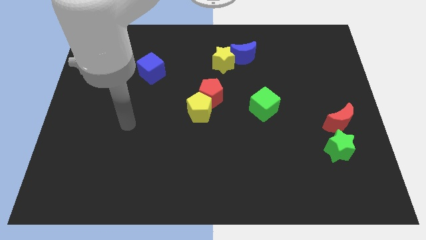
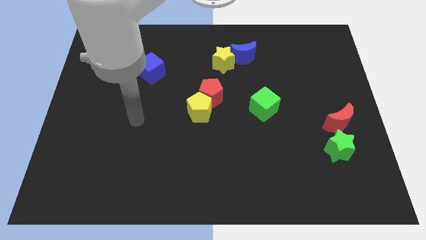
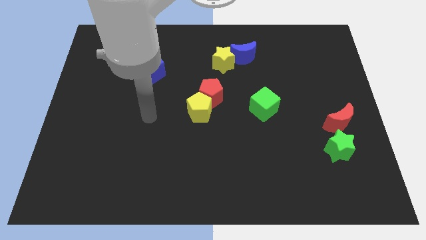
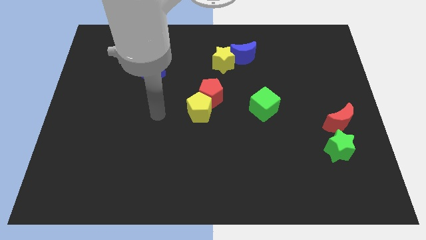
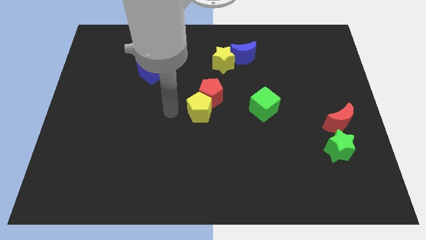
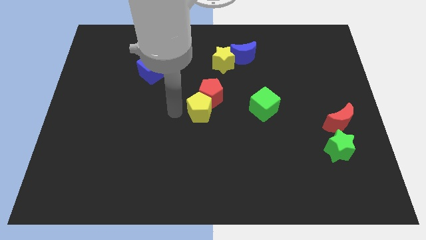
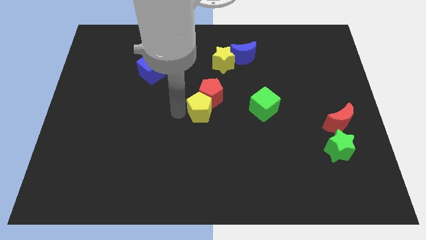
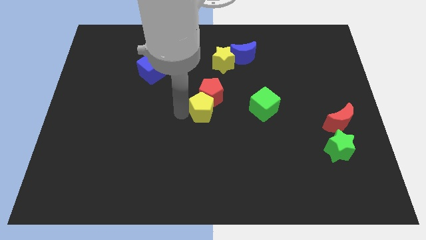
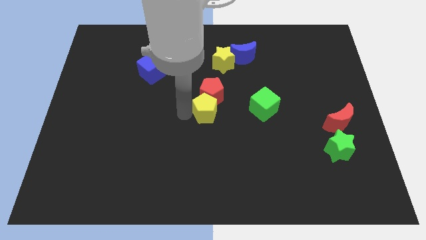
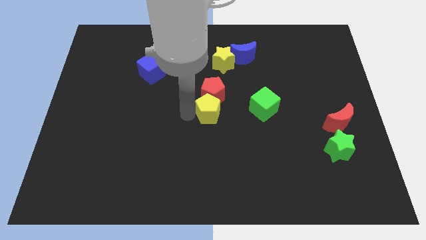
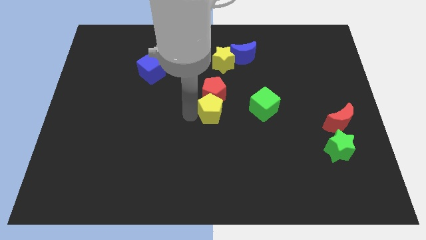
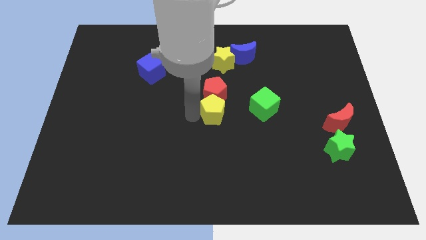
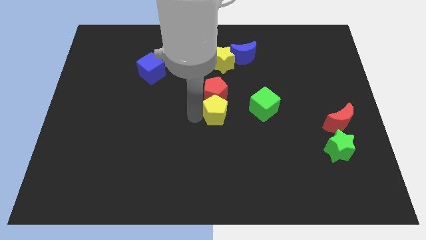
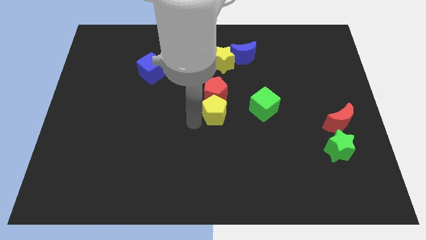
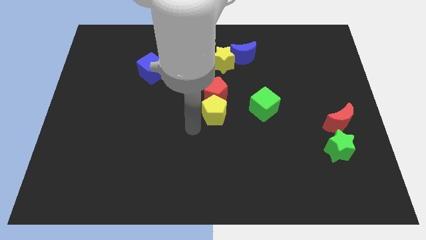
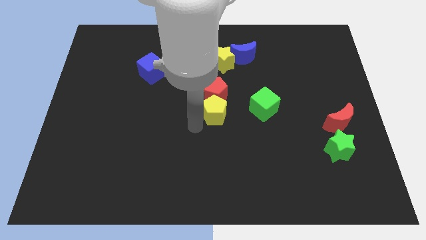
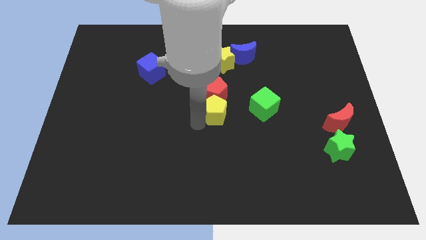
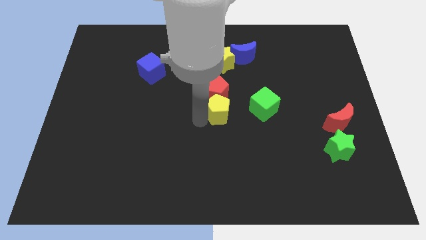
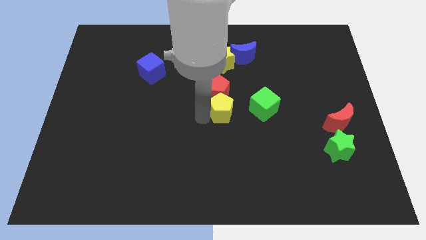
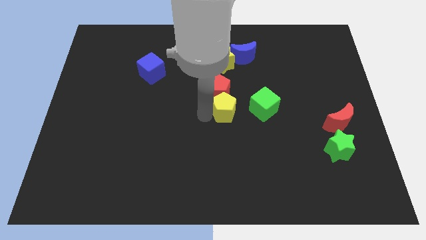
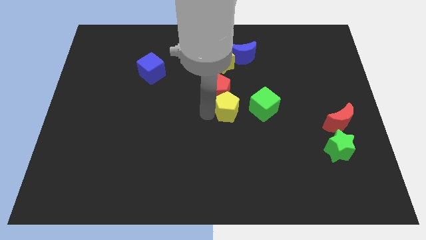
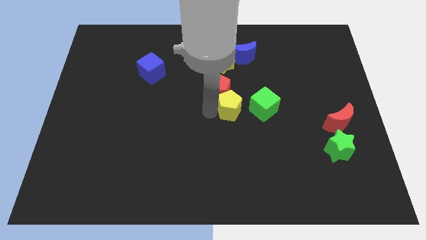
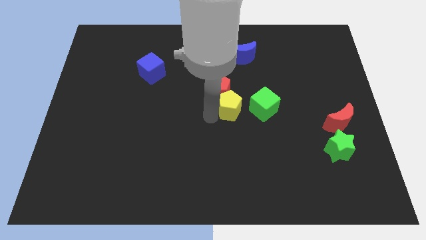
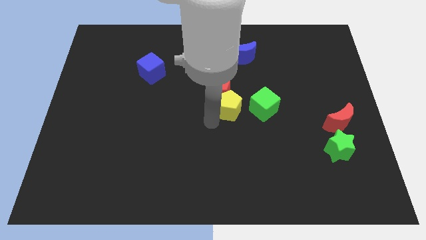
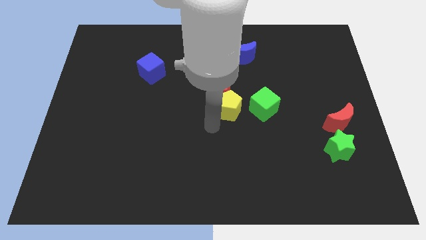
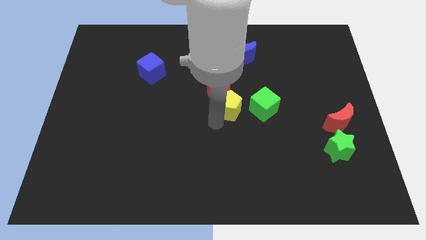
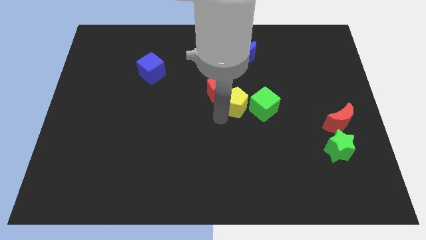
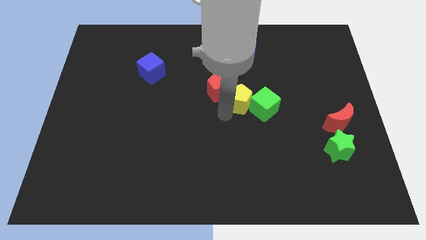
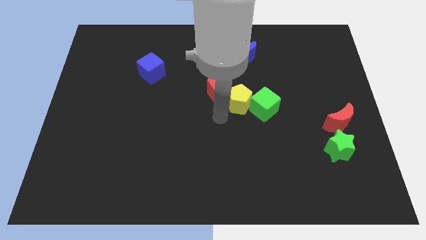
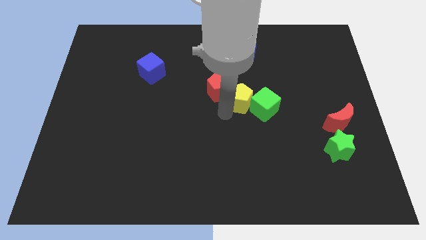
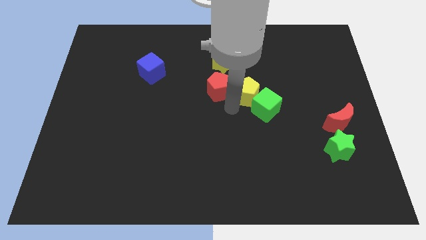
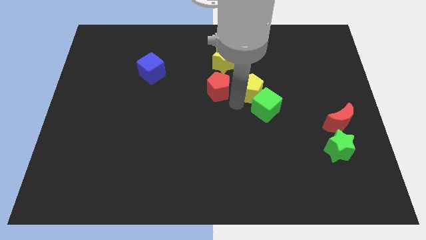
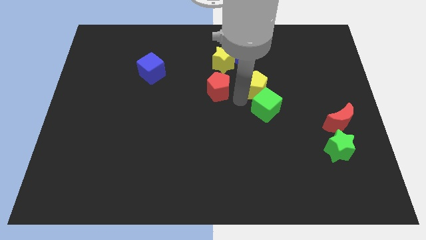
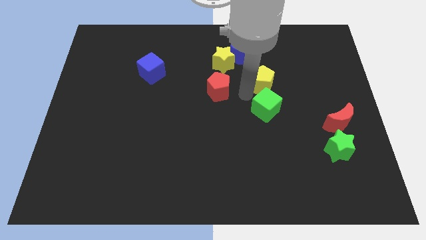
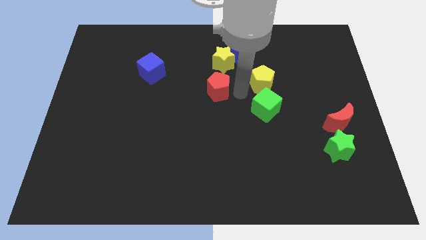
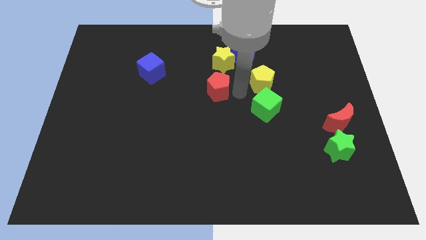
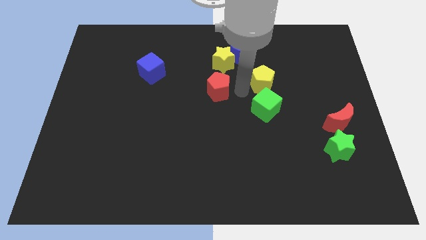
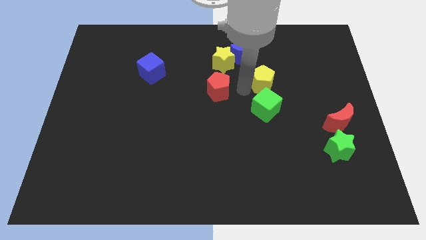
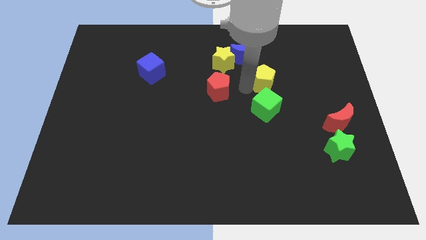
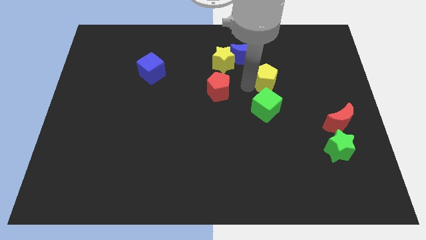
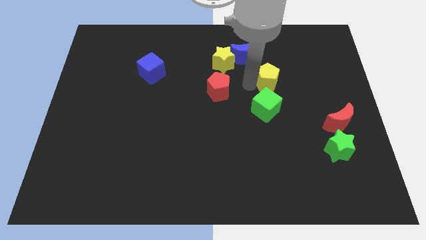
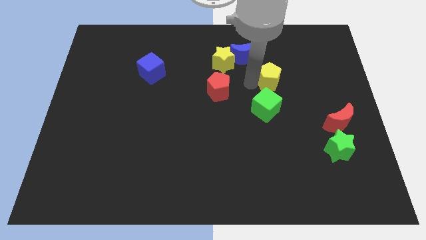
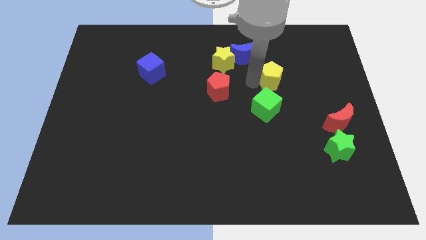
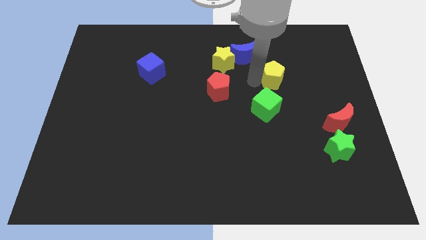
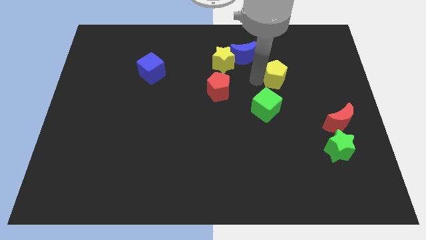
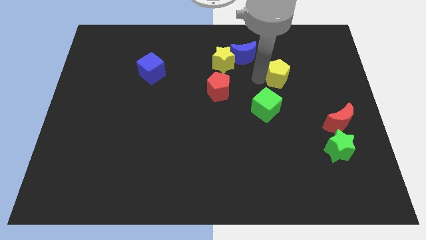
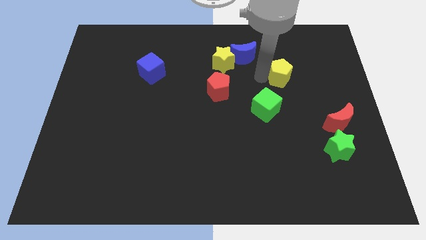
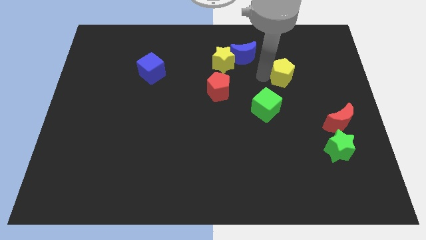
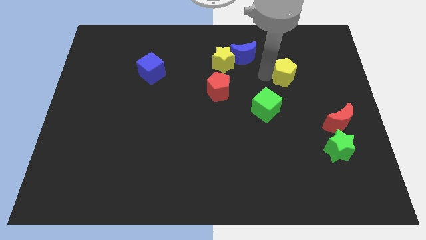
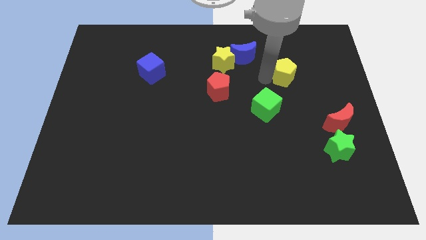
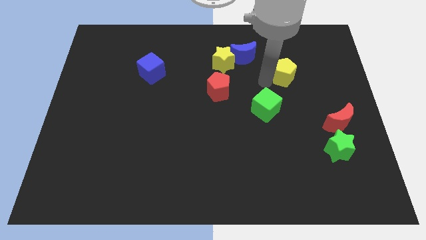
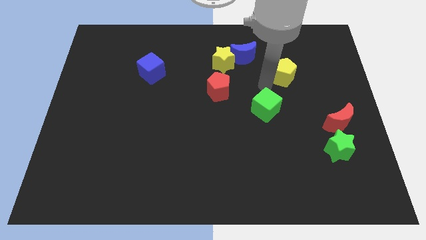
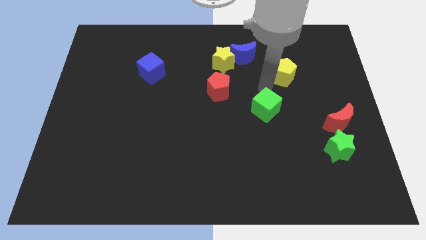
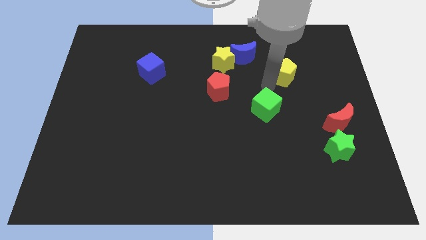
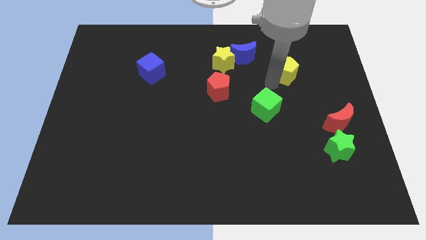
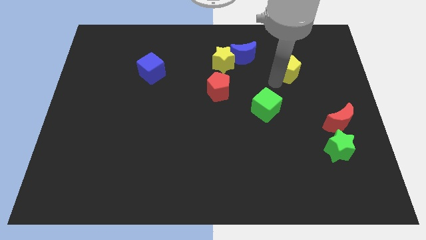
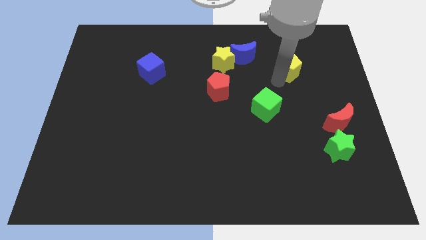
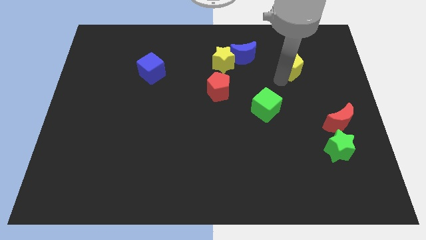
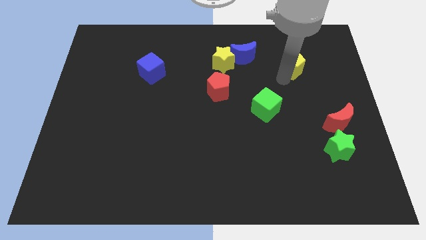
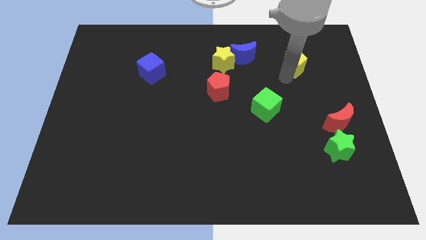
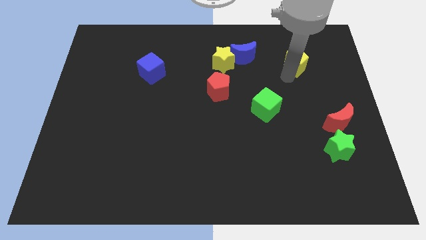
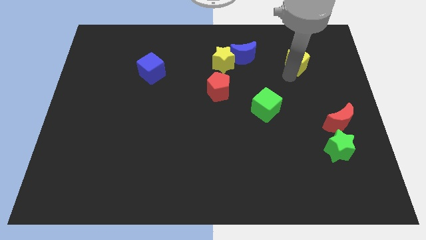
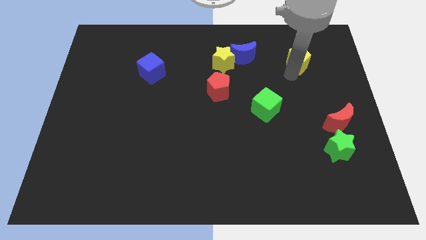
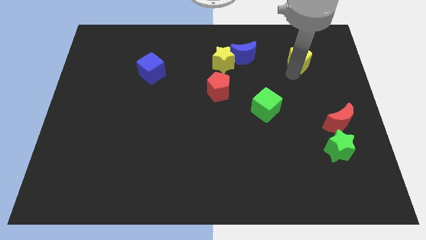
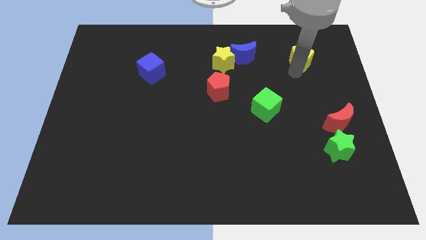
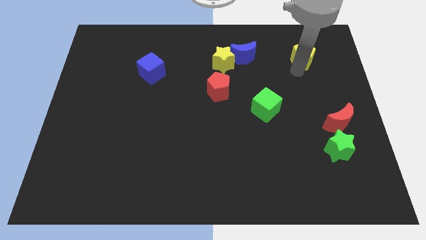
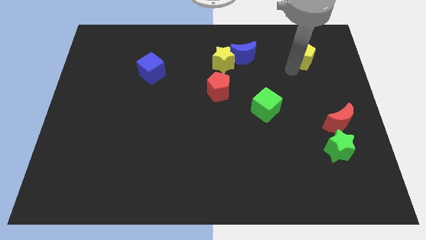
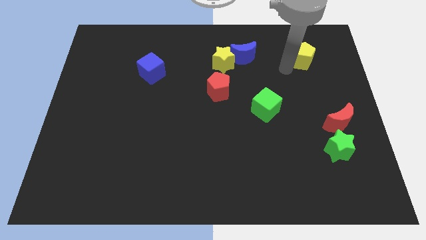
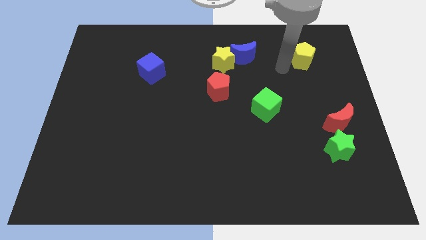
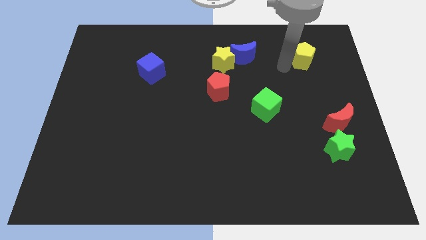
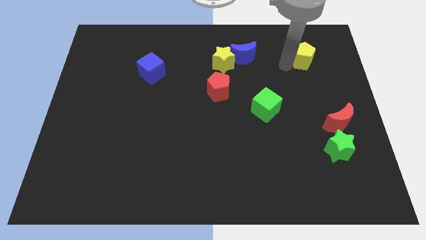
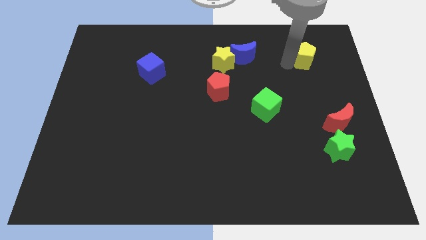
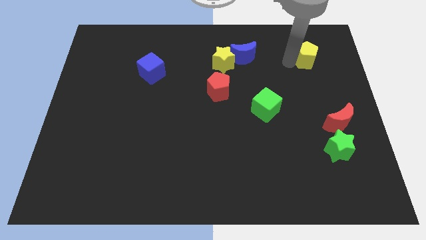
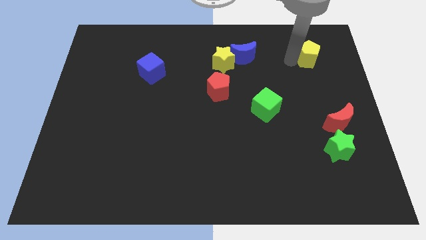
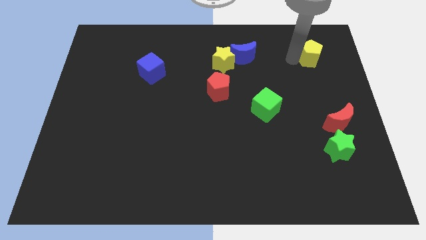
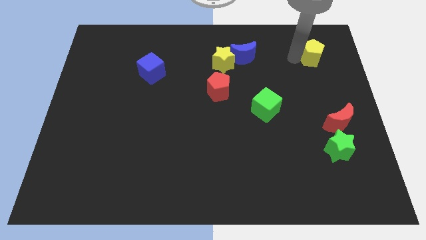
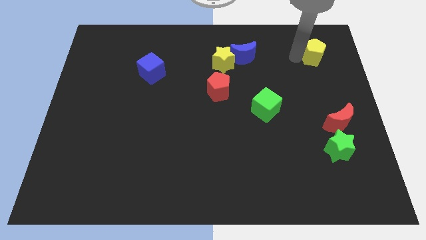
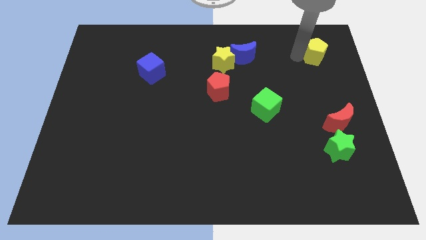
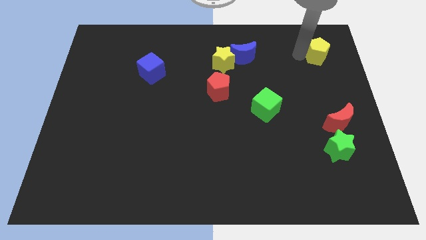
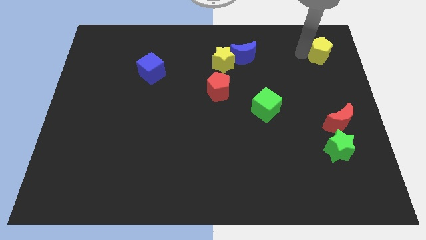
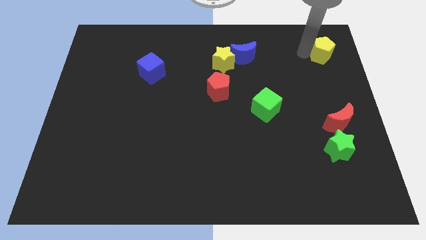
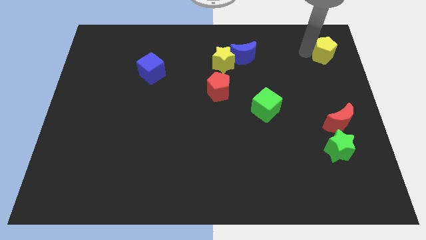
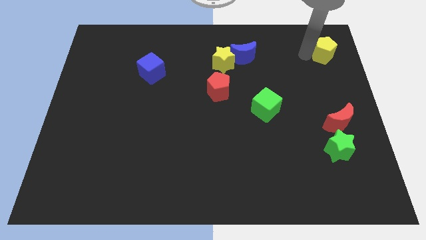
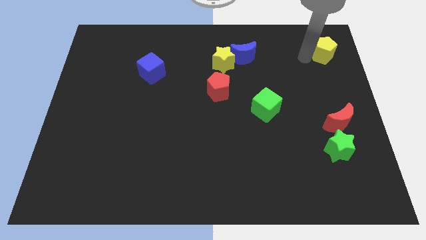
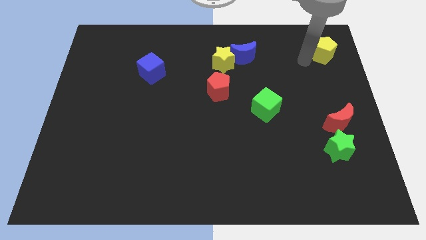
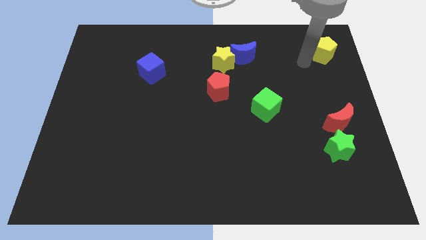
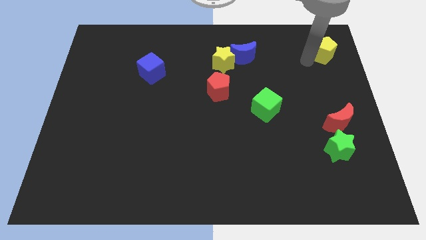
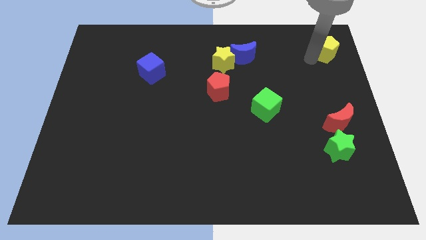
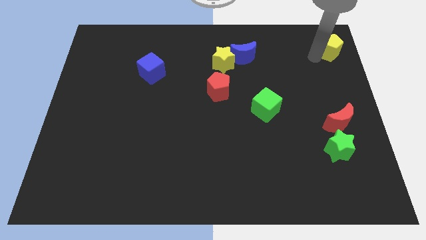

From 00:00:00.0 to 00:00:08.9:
put the yellow pentagon to the upper right corner
